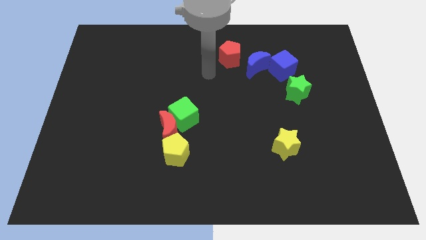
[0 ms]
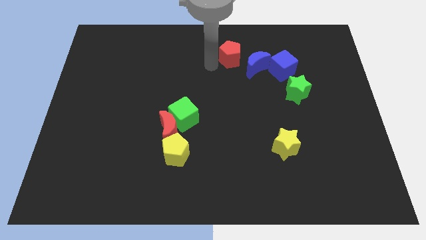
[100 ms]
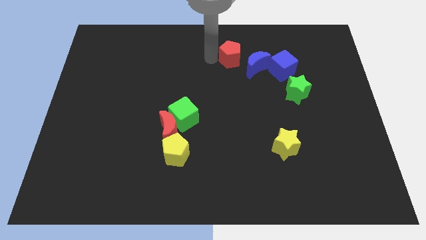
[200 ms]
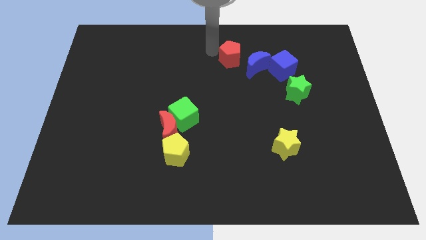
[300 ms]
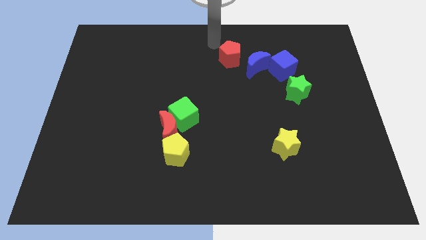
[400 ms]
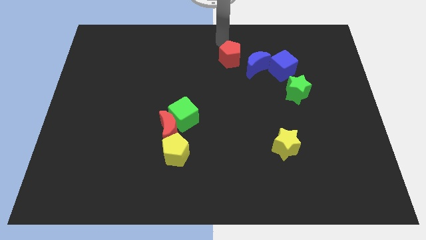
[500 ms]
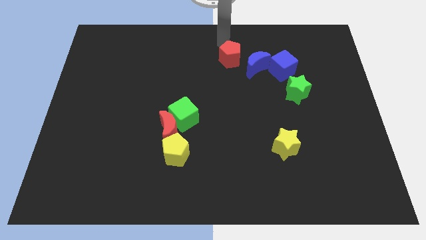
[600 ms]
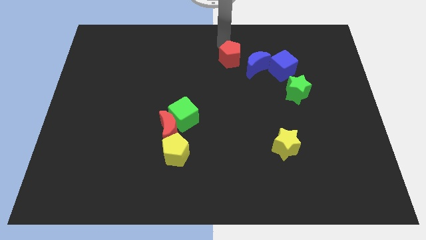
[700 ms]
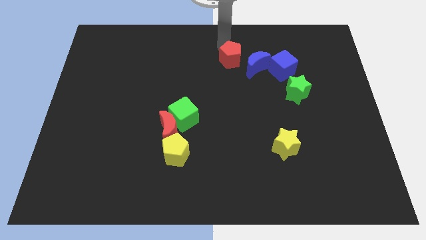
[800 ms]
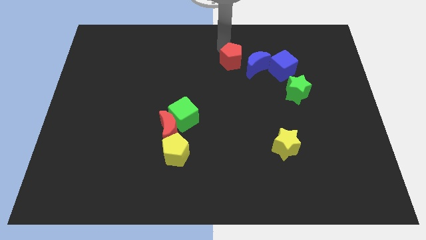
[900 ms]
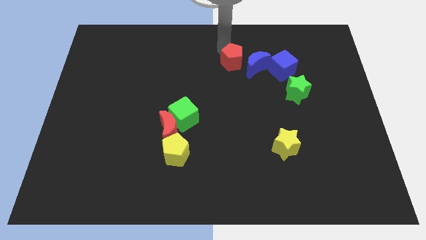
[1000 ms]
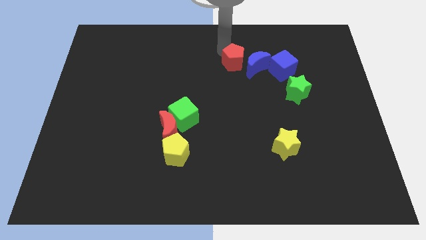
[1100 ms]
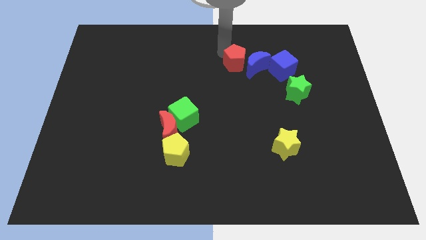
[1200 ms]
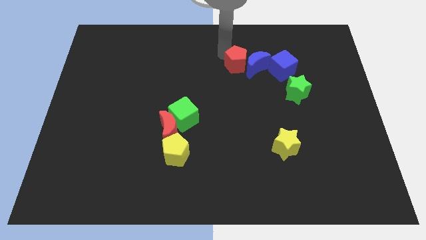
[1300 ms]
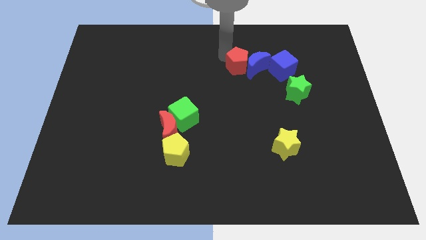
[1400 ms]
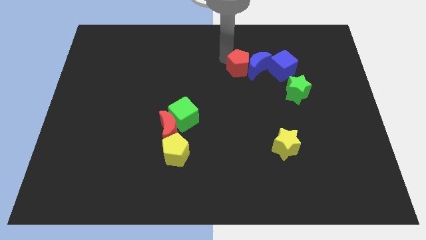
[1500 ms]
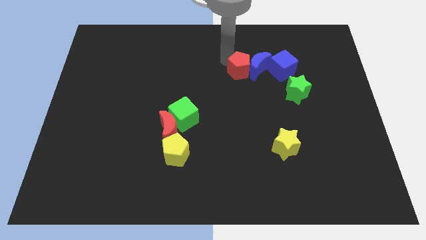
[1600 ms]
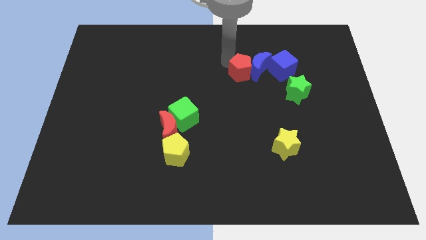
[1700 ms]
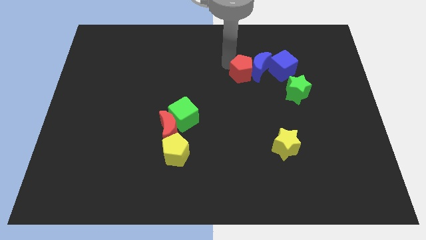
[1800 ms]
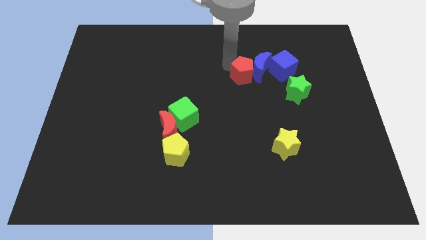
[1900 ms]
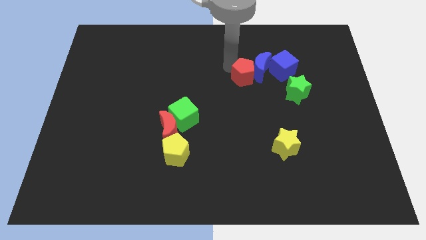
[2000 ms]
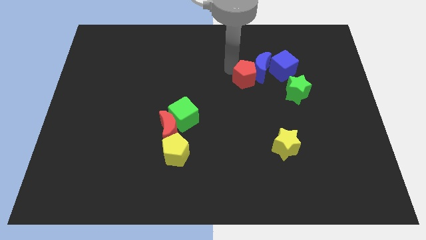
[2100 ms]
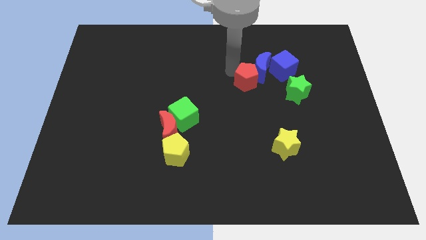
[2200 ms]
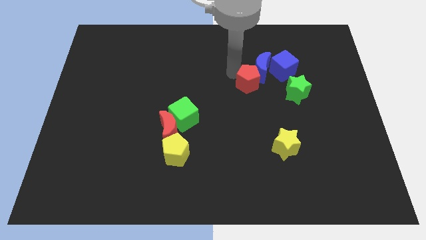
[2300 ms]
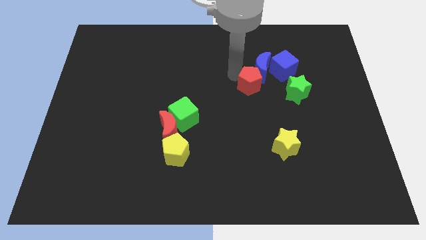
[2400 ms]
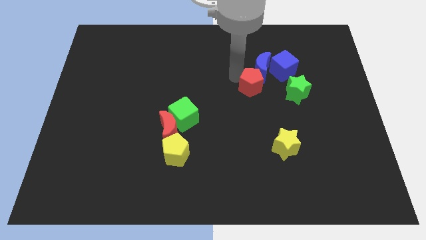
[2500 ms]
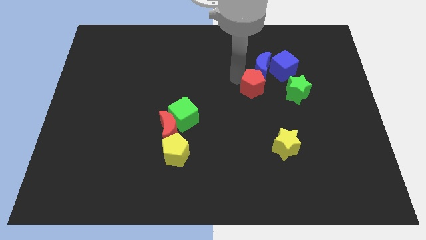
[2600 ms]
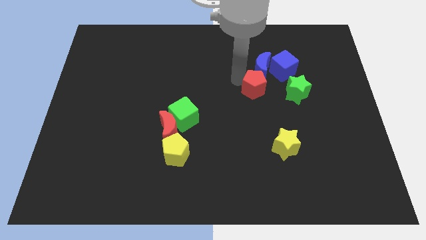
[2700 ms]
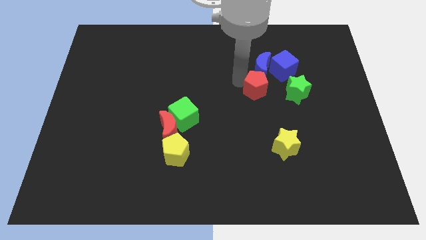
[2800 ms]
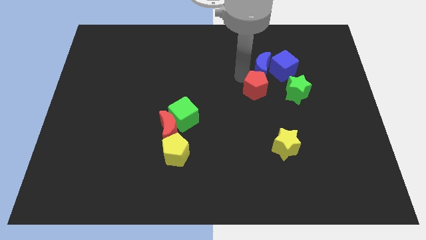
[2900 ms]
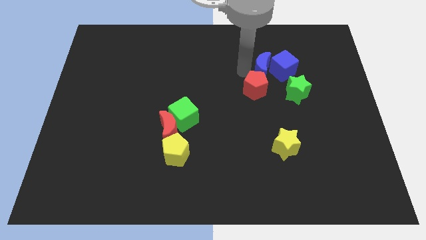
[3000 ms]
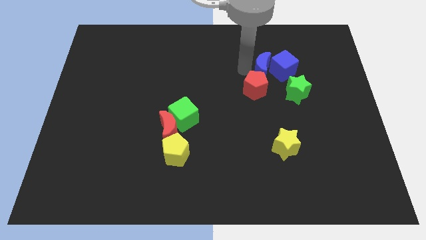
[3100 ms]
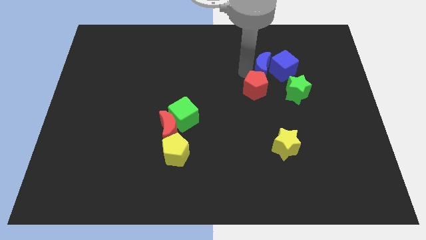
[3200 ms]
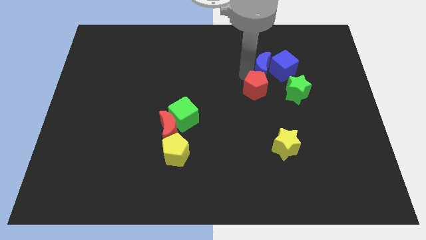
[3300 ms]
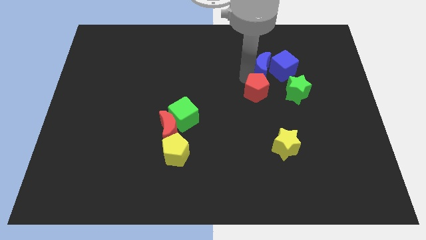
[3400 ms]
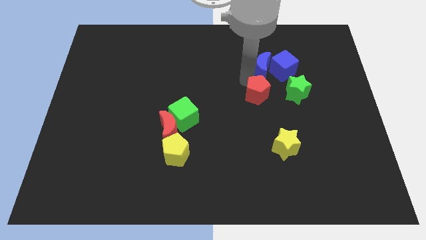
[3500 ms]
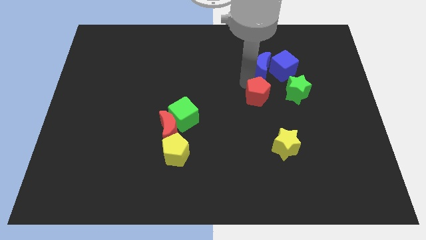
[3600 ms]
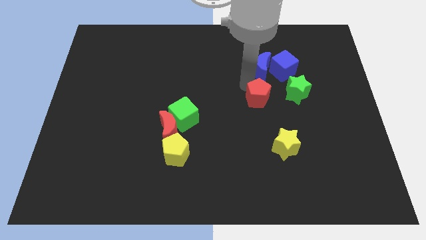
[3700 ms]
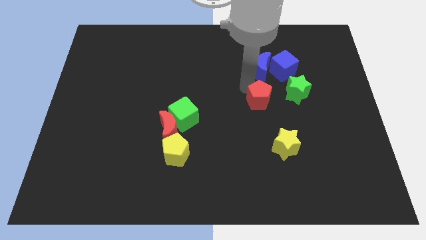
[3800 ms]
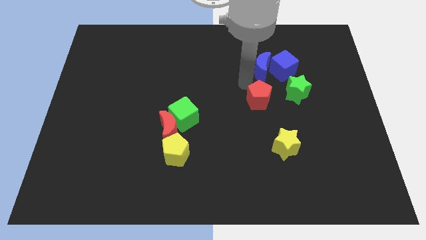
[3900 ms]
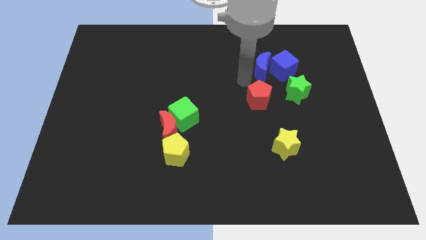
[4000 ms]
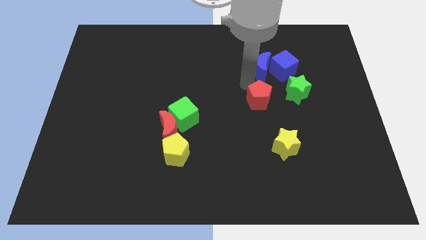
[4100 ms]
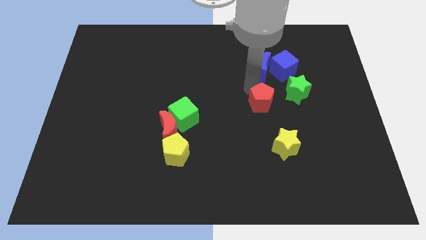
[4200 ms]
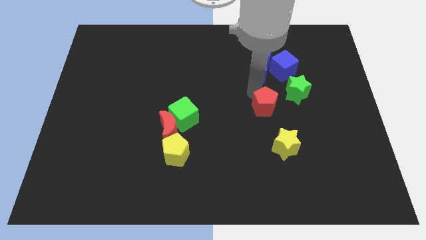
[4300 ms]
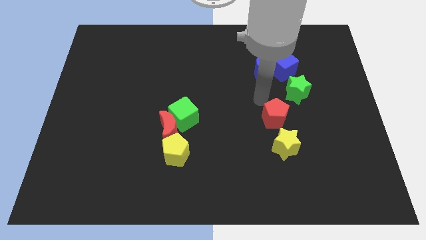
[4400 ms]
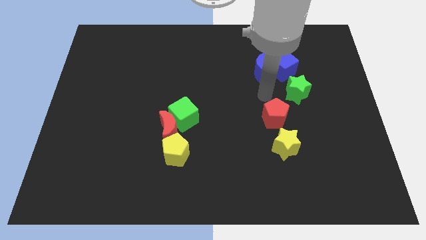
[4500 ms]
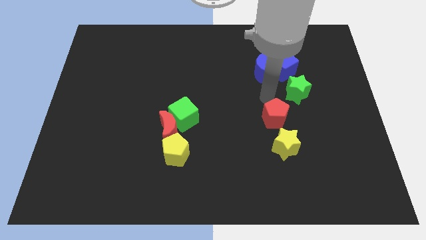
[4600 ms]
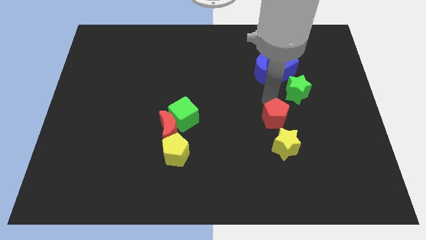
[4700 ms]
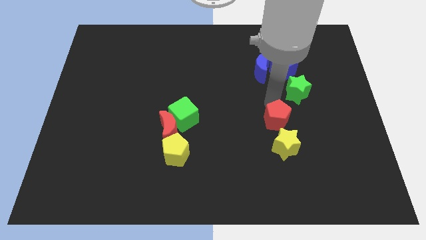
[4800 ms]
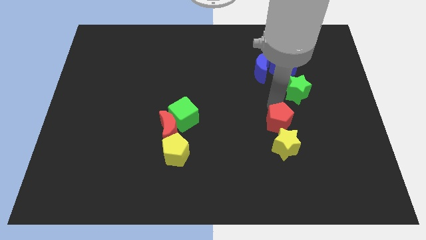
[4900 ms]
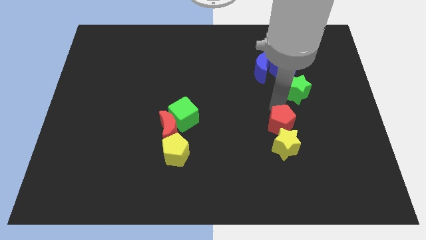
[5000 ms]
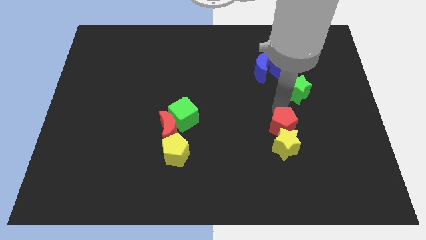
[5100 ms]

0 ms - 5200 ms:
push the red pentagon next to the yellow star

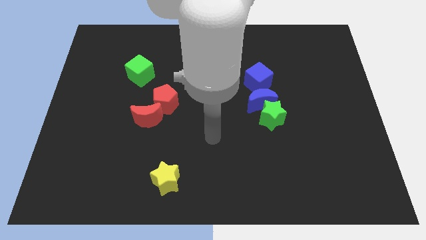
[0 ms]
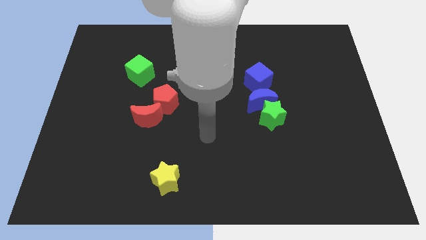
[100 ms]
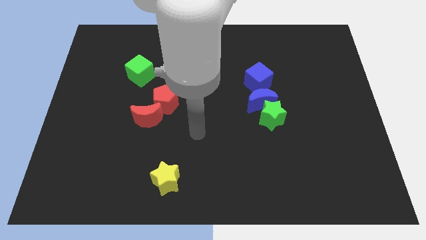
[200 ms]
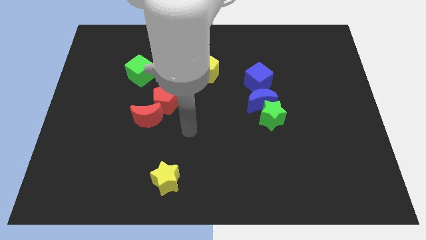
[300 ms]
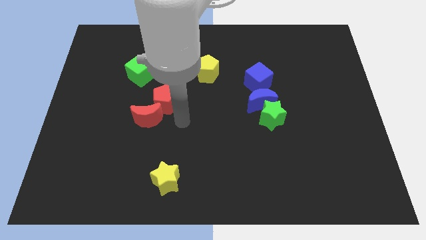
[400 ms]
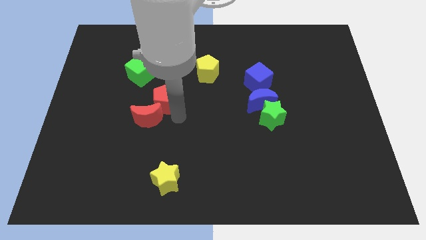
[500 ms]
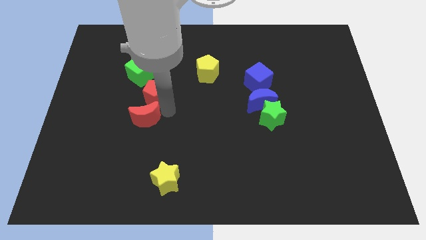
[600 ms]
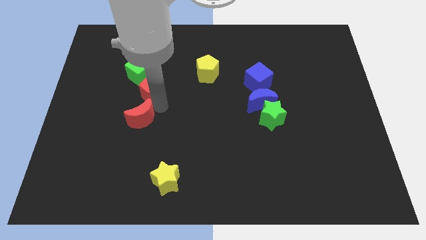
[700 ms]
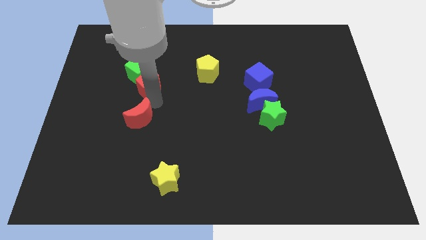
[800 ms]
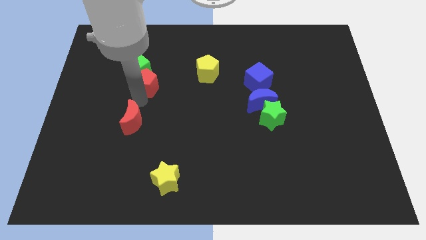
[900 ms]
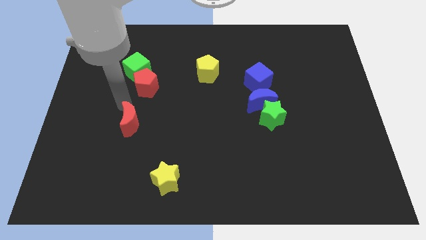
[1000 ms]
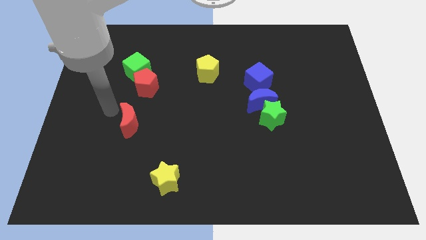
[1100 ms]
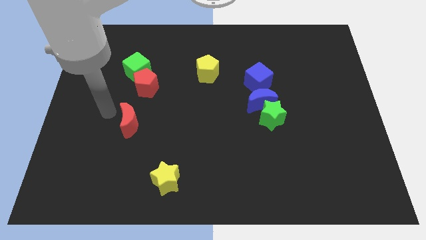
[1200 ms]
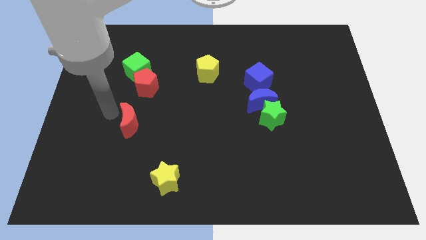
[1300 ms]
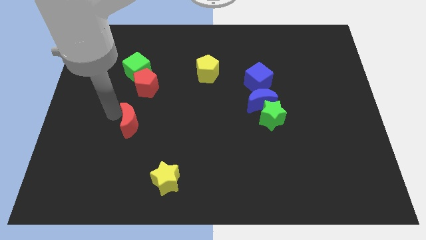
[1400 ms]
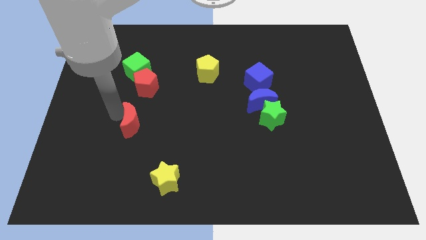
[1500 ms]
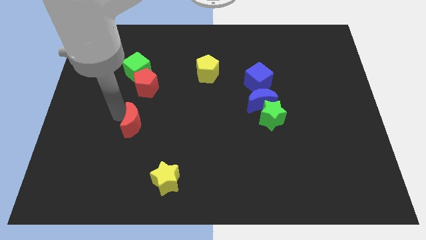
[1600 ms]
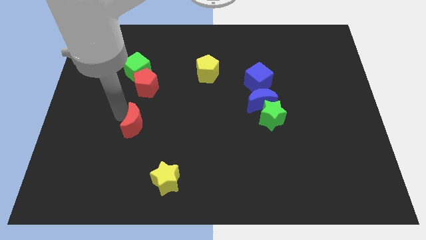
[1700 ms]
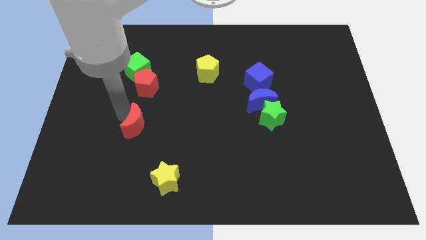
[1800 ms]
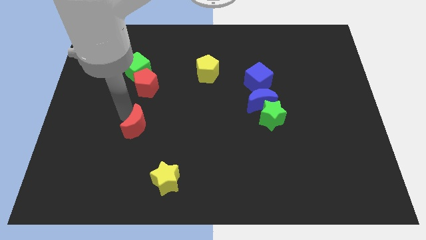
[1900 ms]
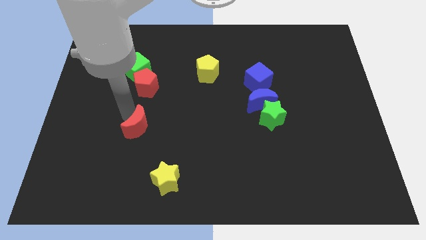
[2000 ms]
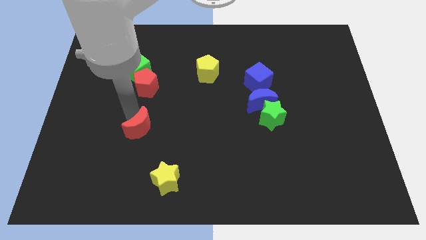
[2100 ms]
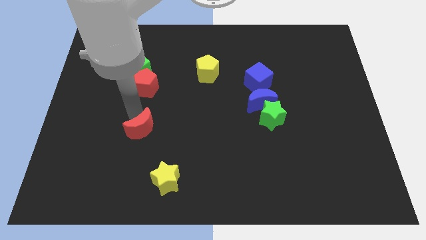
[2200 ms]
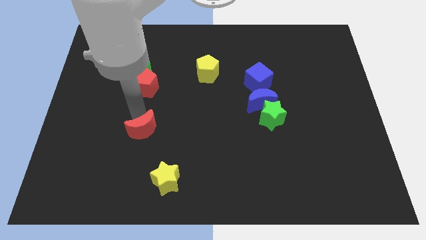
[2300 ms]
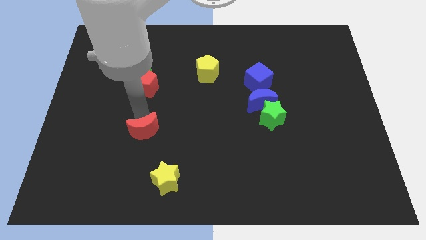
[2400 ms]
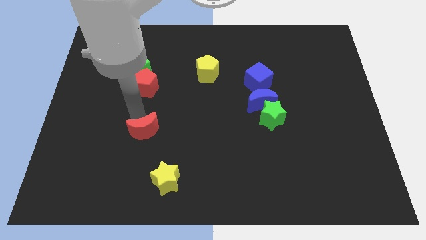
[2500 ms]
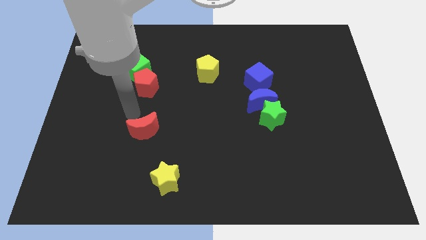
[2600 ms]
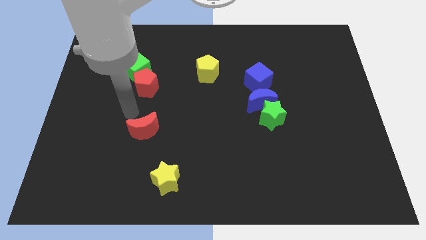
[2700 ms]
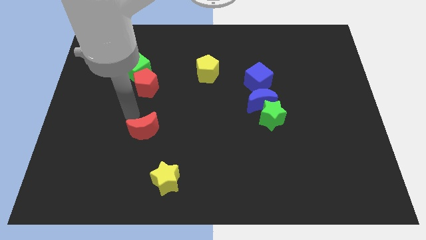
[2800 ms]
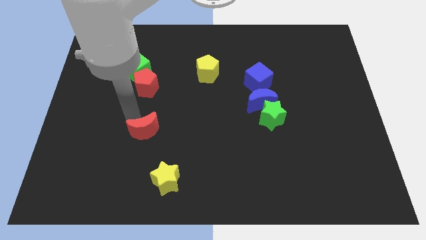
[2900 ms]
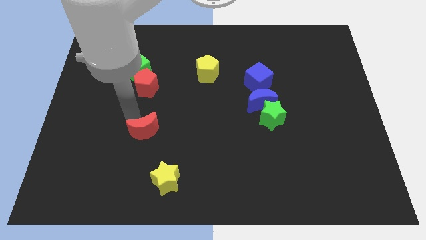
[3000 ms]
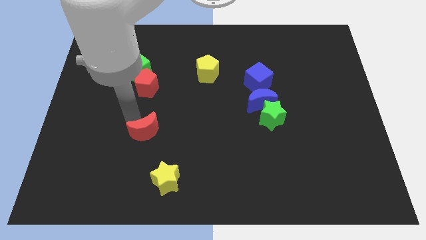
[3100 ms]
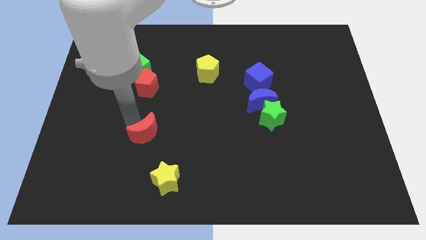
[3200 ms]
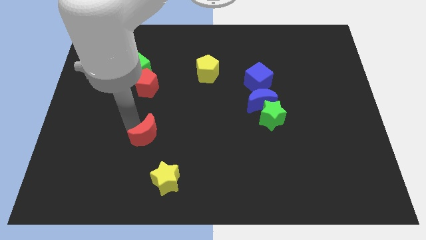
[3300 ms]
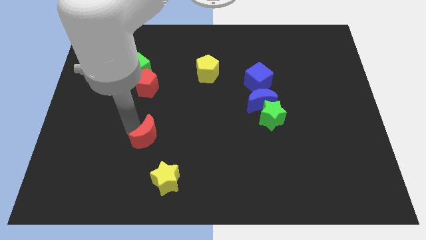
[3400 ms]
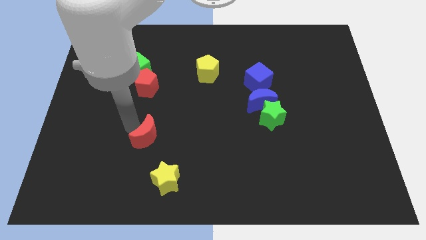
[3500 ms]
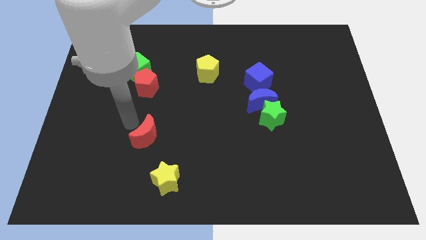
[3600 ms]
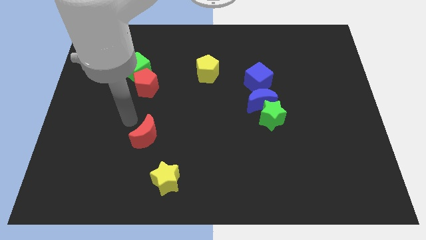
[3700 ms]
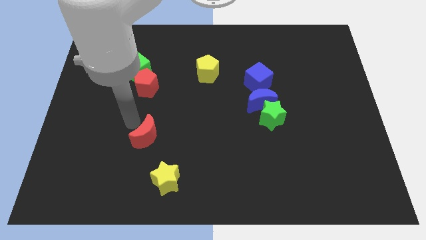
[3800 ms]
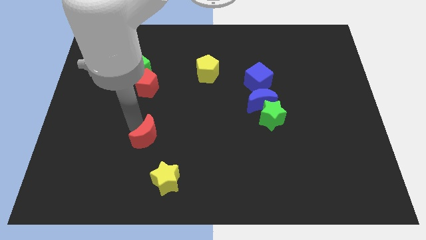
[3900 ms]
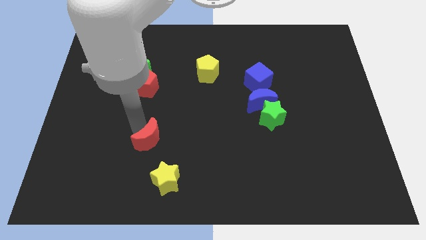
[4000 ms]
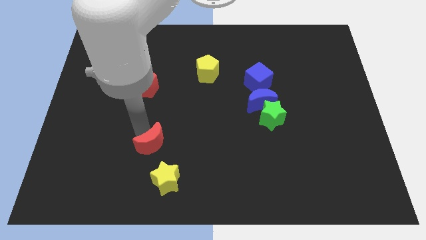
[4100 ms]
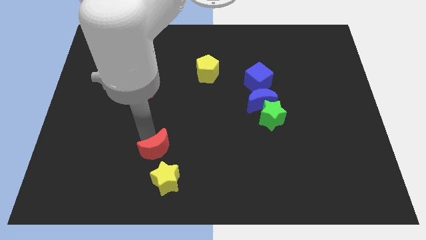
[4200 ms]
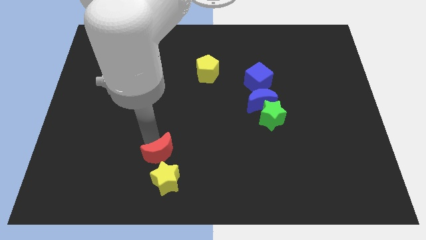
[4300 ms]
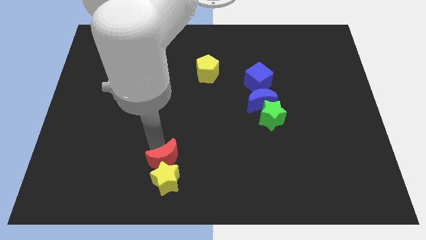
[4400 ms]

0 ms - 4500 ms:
push the red moon close to the yellow star
